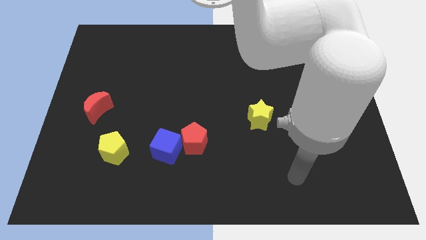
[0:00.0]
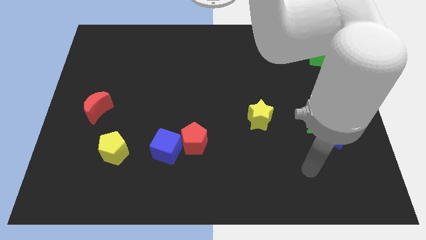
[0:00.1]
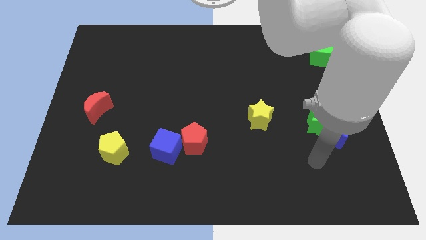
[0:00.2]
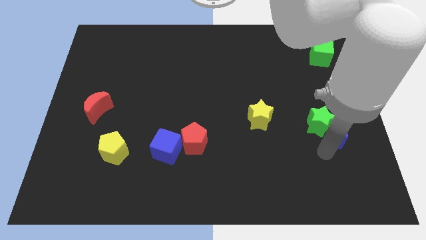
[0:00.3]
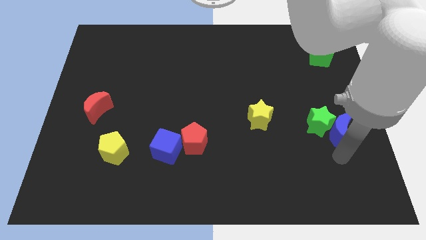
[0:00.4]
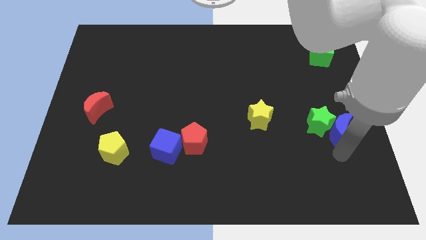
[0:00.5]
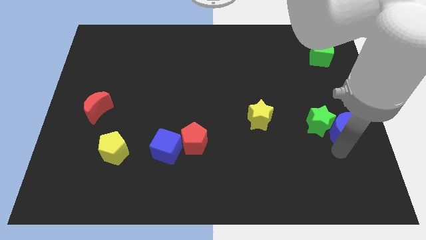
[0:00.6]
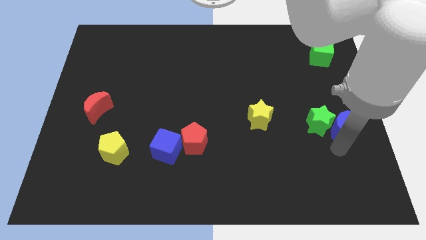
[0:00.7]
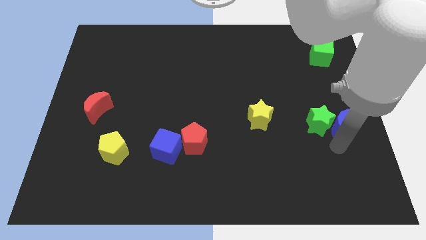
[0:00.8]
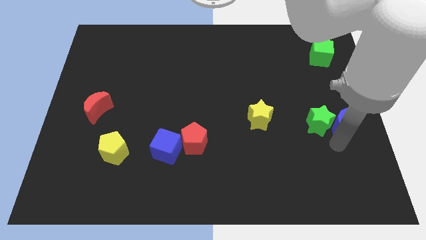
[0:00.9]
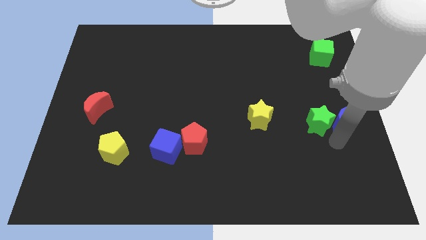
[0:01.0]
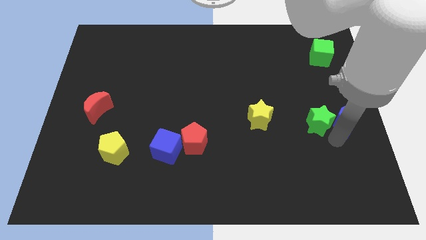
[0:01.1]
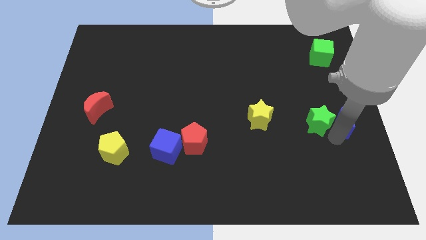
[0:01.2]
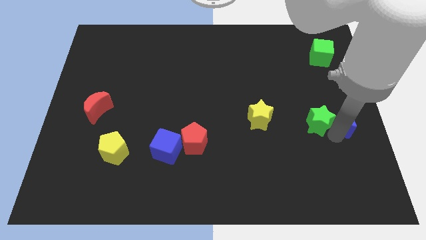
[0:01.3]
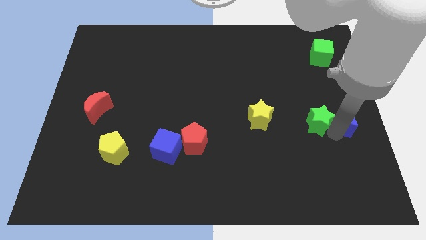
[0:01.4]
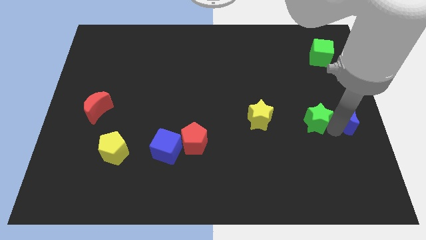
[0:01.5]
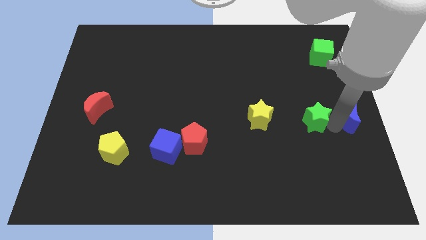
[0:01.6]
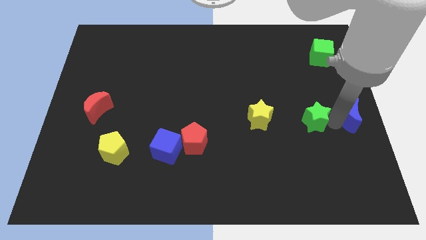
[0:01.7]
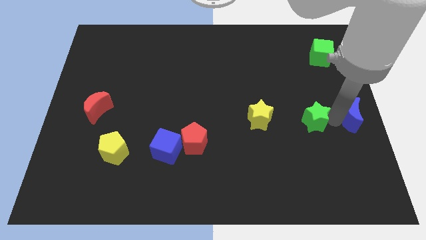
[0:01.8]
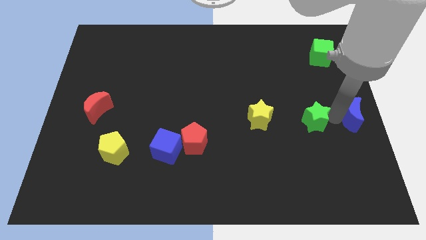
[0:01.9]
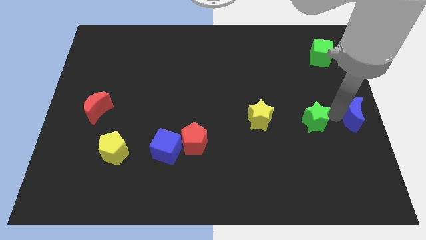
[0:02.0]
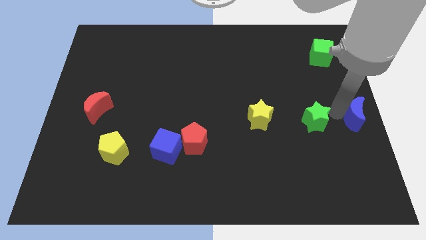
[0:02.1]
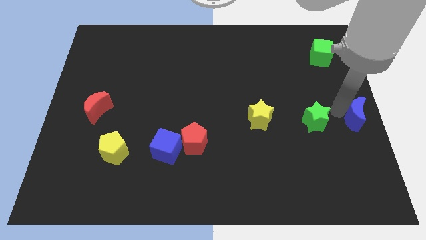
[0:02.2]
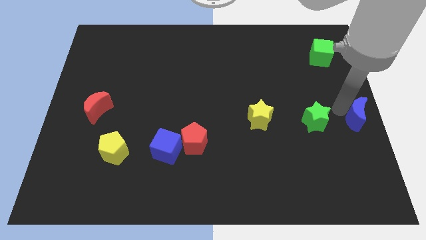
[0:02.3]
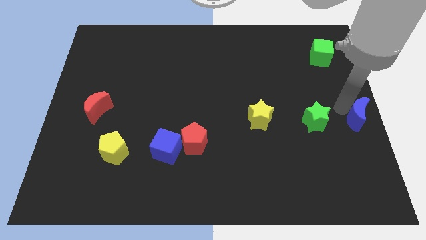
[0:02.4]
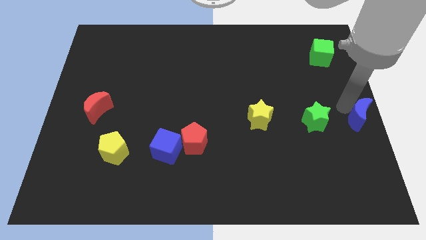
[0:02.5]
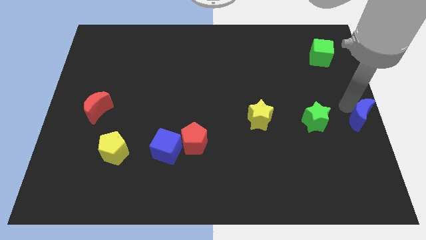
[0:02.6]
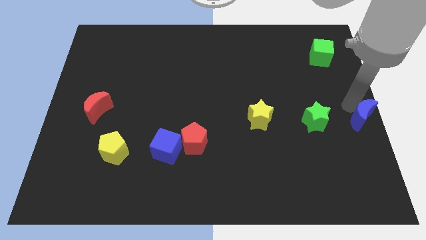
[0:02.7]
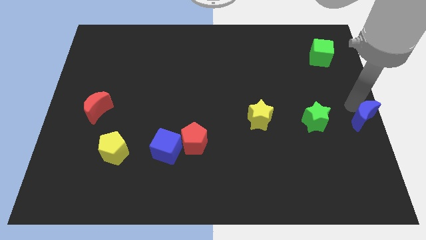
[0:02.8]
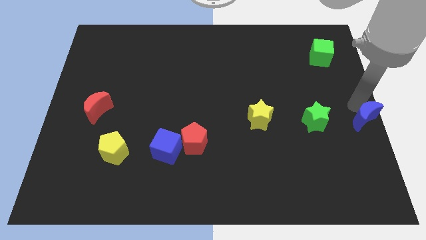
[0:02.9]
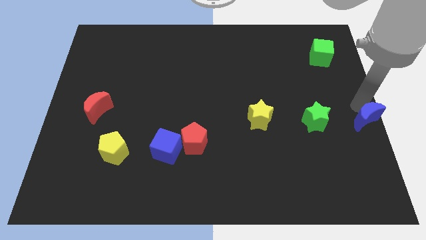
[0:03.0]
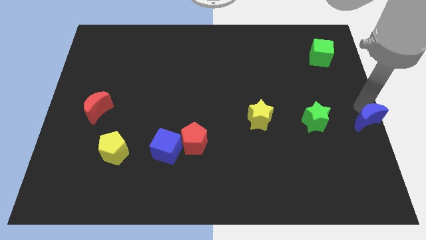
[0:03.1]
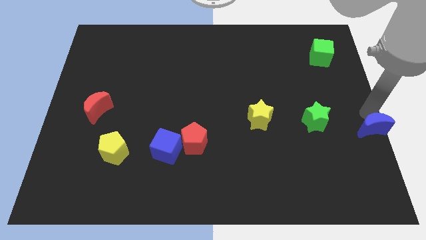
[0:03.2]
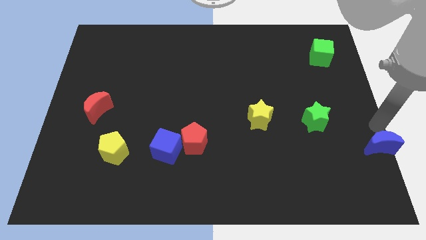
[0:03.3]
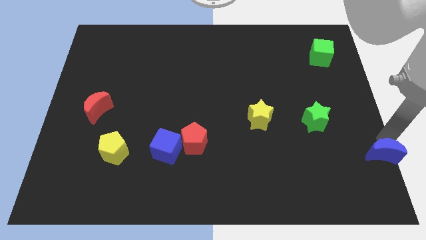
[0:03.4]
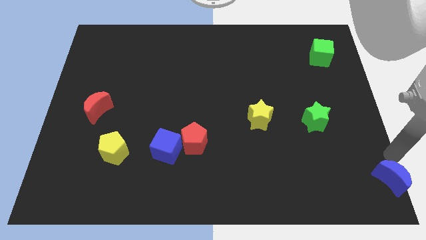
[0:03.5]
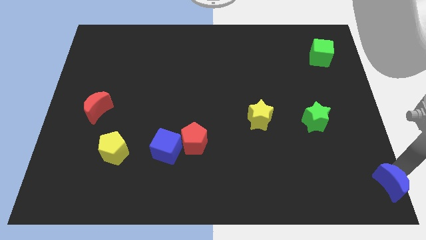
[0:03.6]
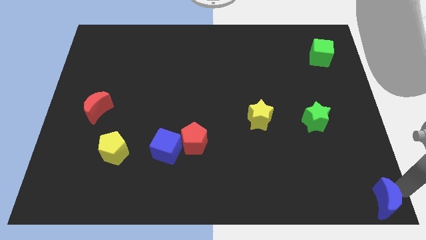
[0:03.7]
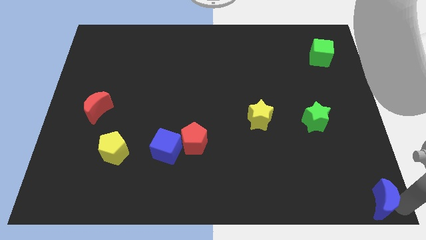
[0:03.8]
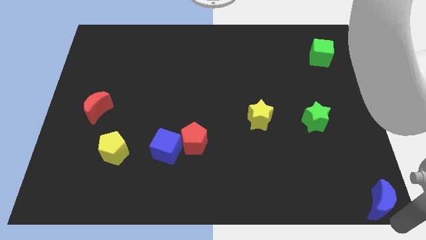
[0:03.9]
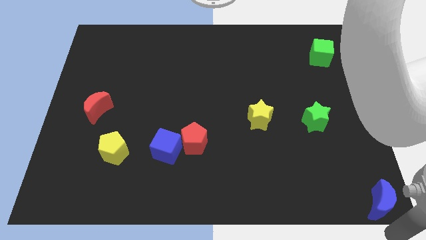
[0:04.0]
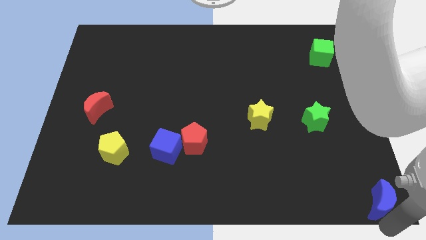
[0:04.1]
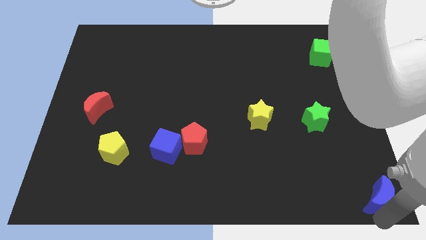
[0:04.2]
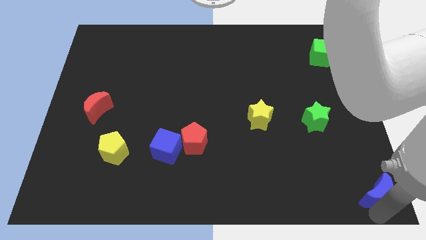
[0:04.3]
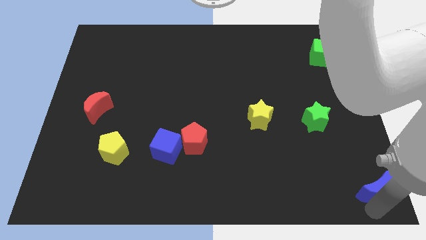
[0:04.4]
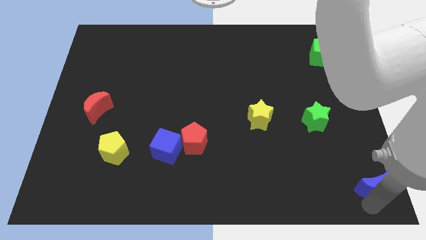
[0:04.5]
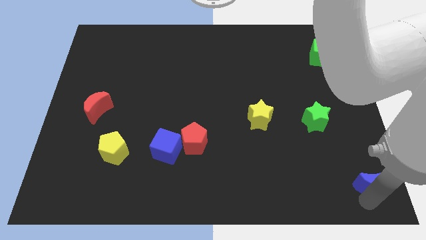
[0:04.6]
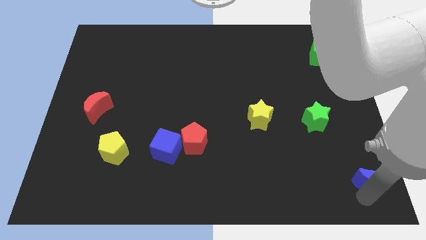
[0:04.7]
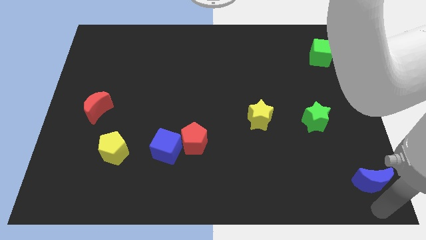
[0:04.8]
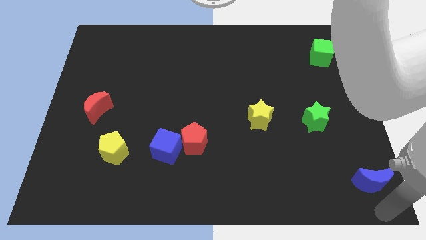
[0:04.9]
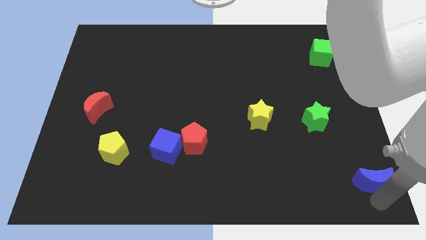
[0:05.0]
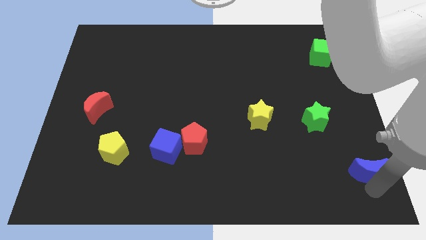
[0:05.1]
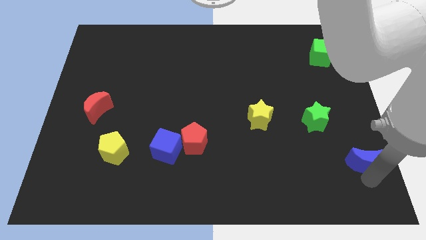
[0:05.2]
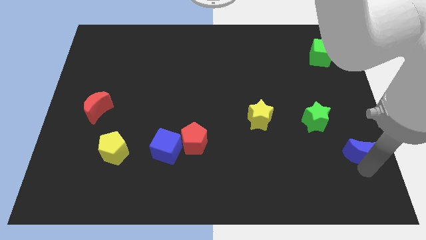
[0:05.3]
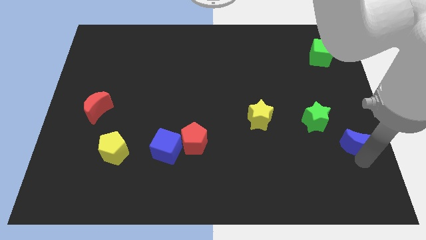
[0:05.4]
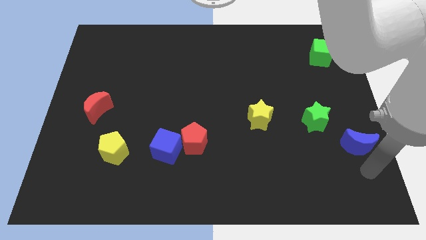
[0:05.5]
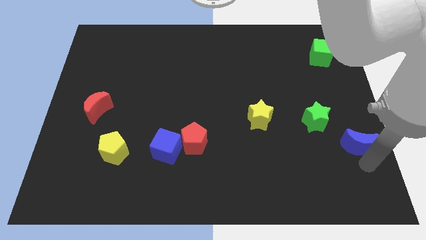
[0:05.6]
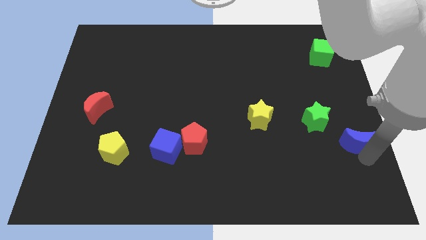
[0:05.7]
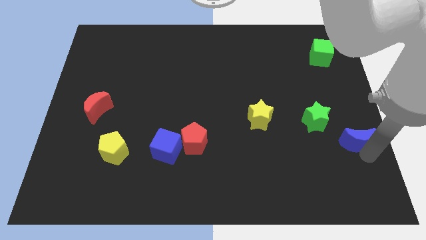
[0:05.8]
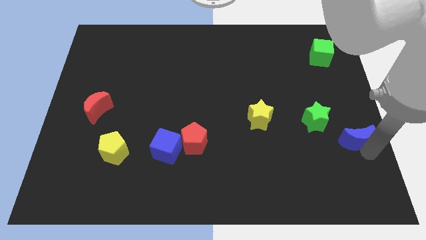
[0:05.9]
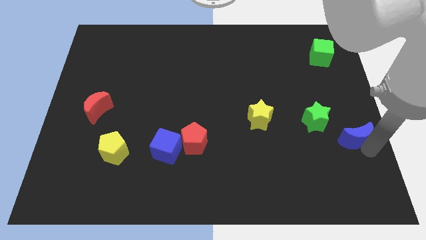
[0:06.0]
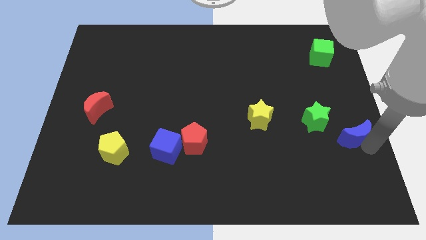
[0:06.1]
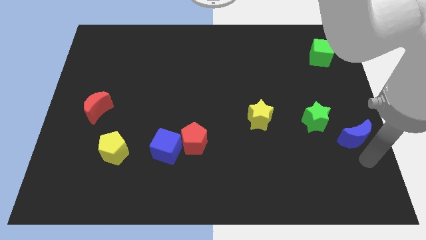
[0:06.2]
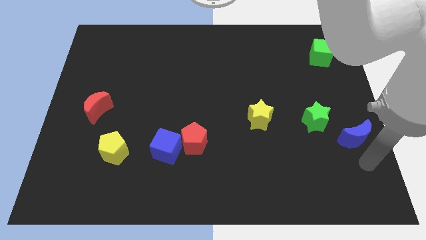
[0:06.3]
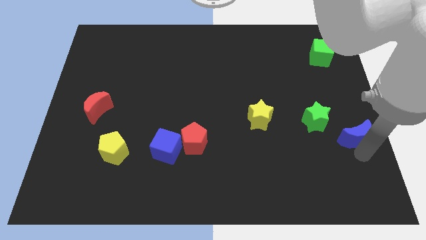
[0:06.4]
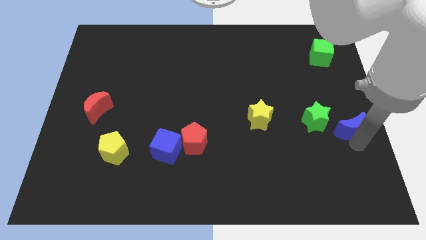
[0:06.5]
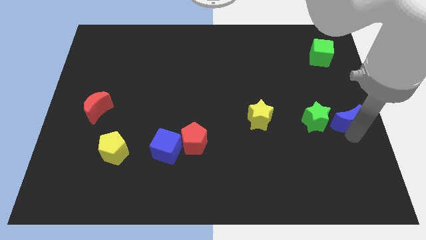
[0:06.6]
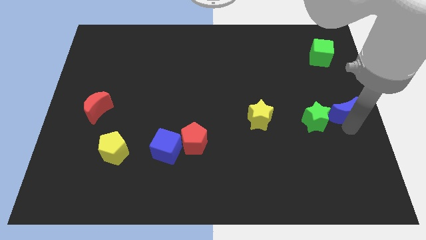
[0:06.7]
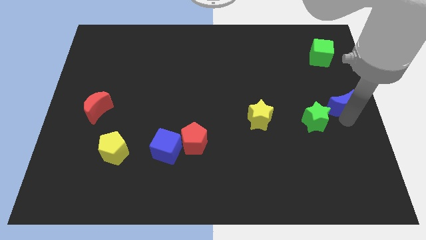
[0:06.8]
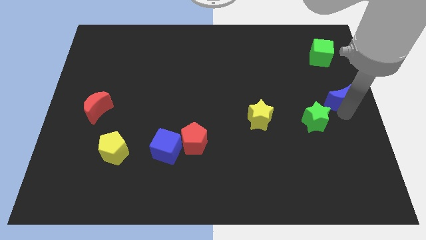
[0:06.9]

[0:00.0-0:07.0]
slide the blue moon to the bottom of the green cube

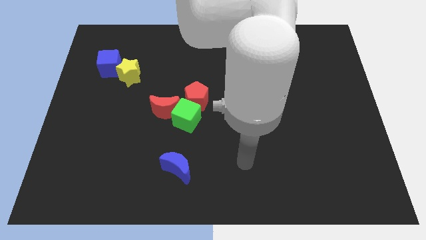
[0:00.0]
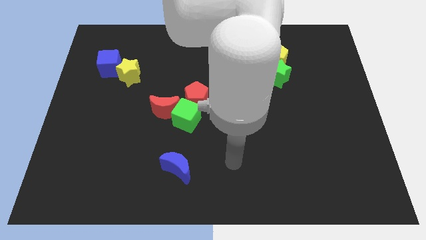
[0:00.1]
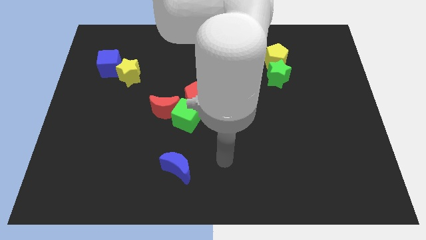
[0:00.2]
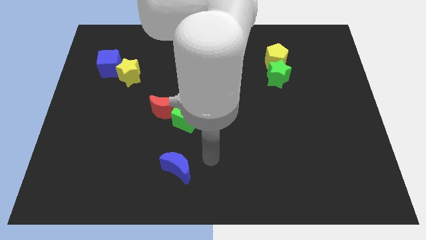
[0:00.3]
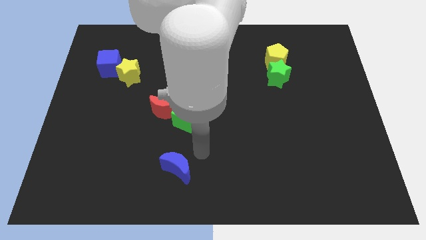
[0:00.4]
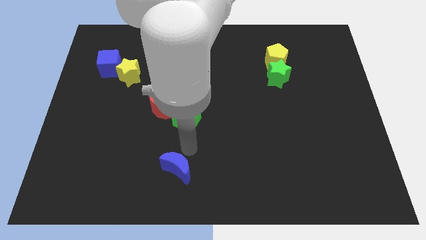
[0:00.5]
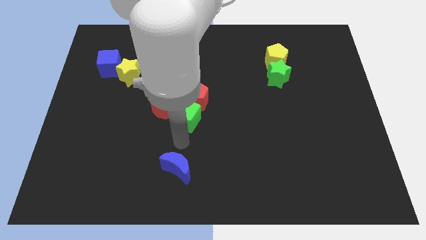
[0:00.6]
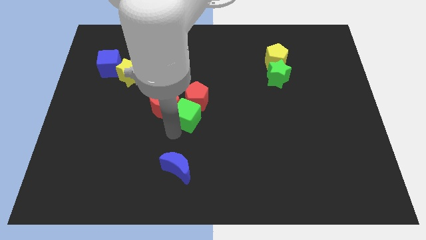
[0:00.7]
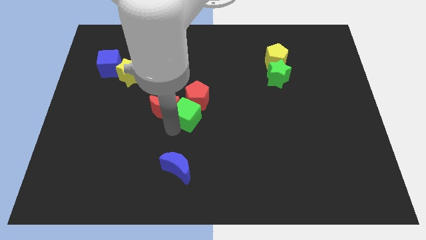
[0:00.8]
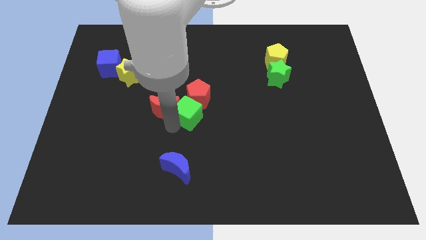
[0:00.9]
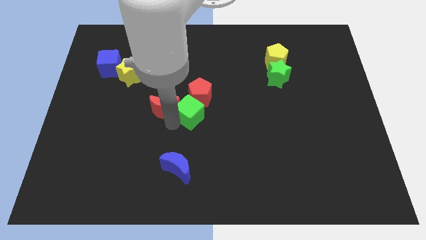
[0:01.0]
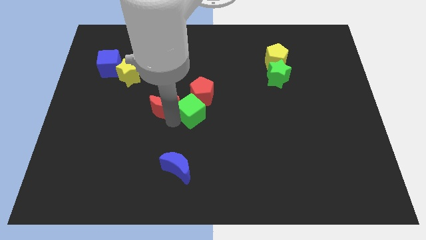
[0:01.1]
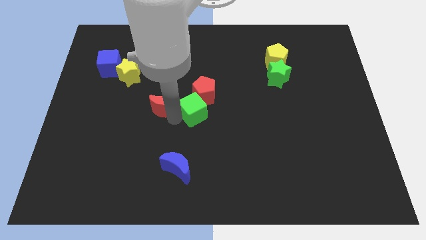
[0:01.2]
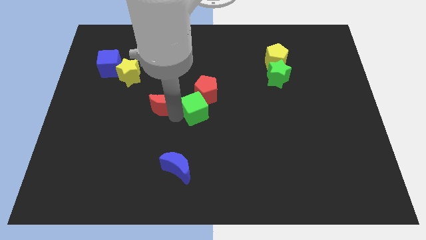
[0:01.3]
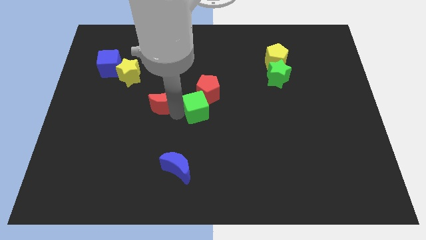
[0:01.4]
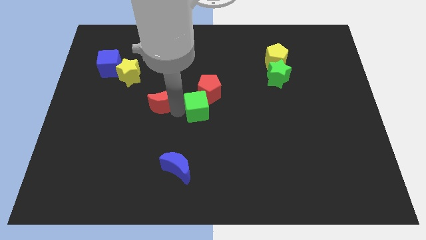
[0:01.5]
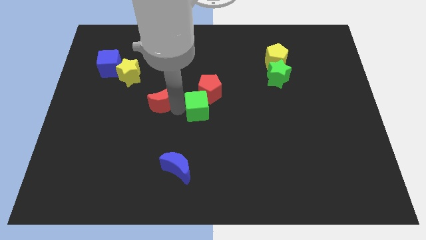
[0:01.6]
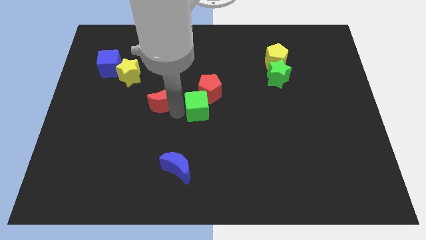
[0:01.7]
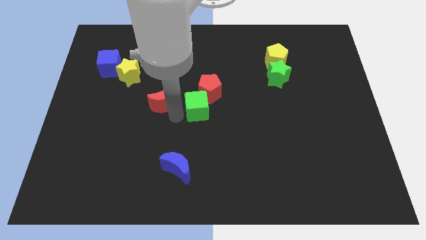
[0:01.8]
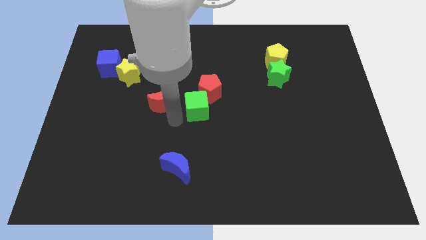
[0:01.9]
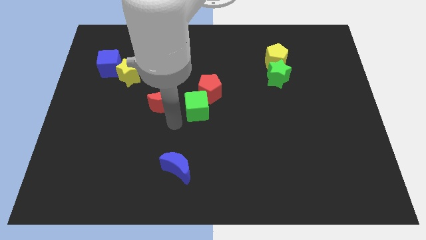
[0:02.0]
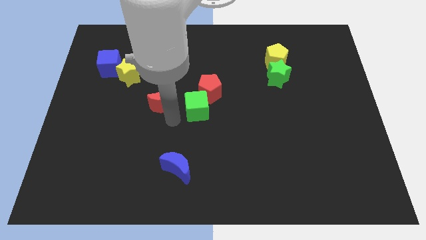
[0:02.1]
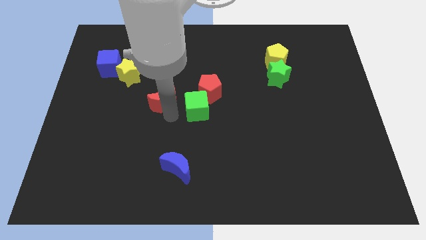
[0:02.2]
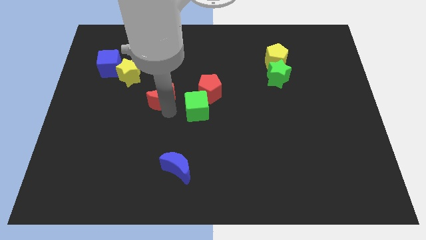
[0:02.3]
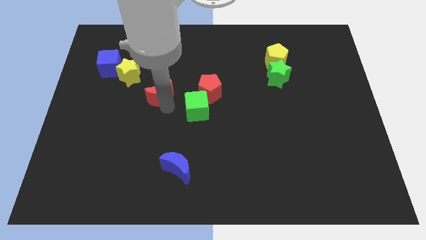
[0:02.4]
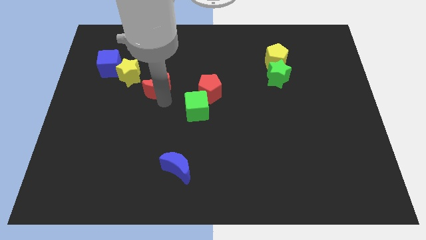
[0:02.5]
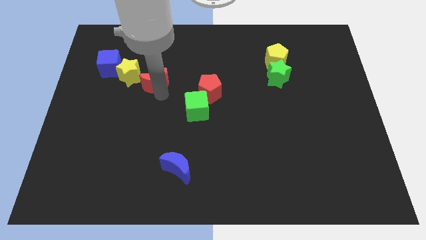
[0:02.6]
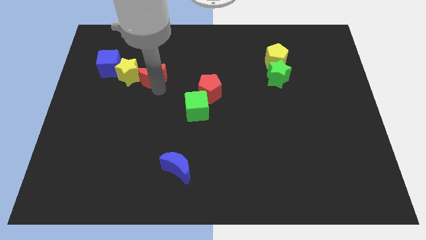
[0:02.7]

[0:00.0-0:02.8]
put the red moon right of the blue cube
